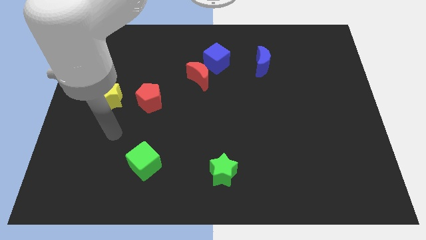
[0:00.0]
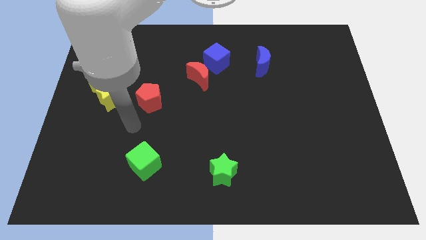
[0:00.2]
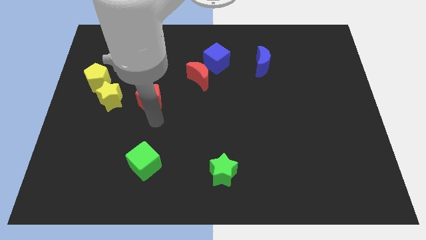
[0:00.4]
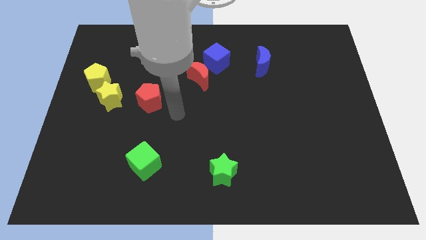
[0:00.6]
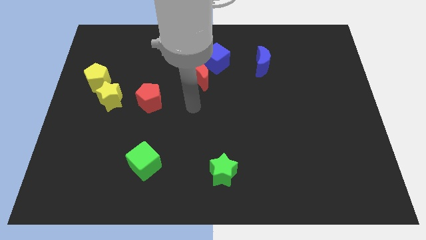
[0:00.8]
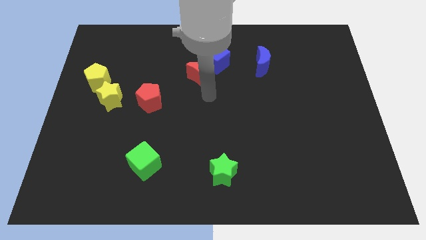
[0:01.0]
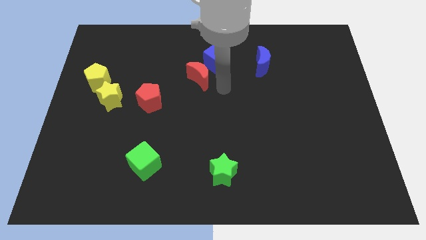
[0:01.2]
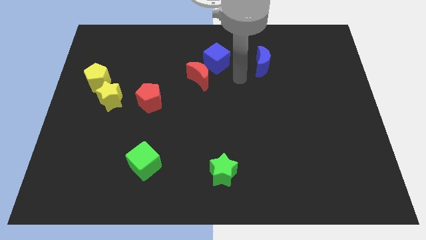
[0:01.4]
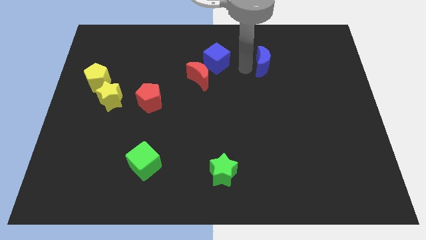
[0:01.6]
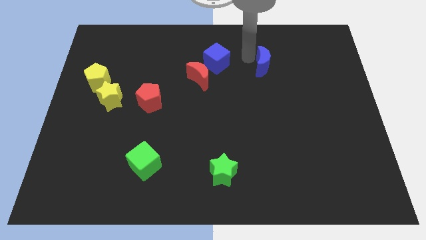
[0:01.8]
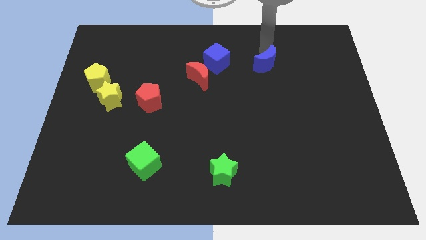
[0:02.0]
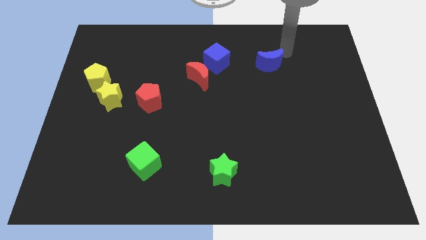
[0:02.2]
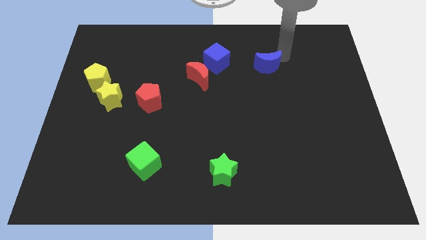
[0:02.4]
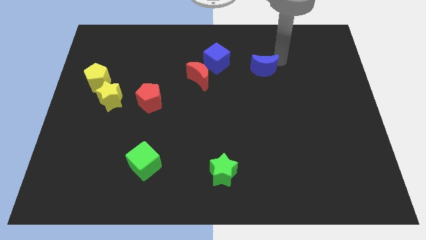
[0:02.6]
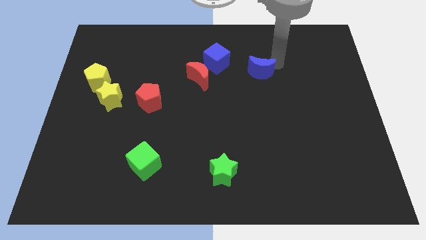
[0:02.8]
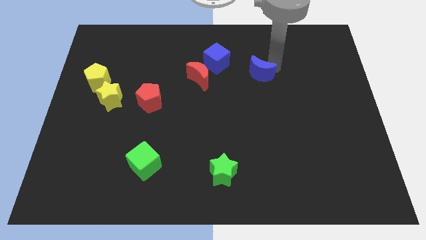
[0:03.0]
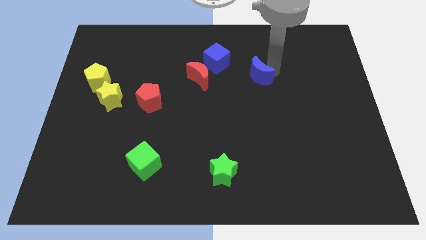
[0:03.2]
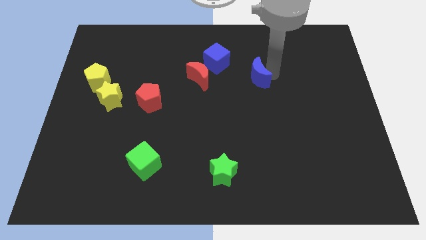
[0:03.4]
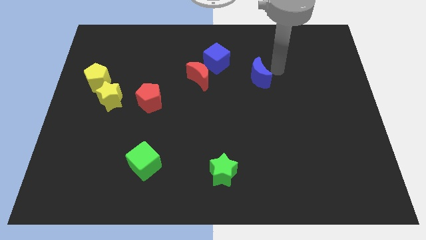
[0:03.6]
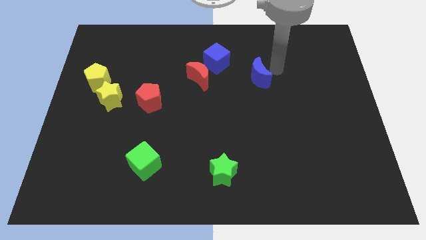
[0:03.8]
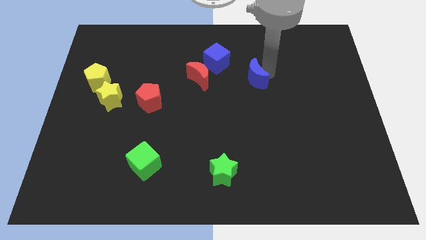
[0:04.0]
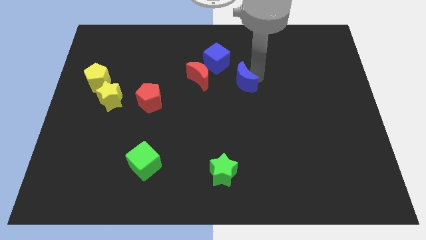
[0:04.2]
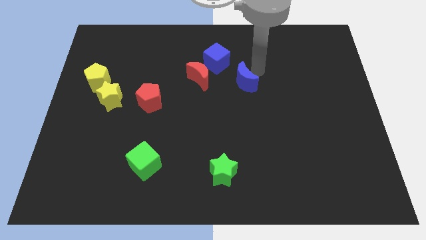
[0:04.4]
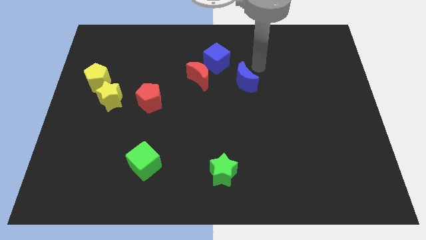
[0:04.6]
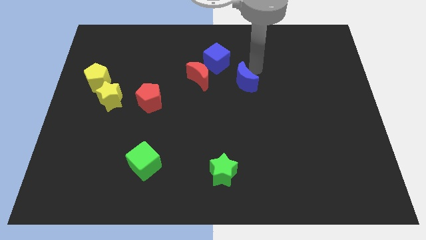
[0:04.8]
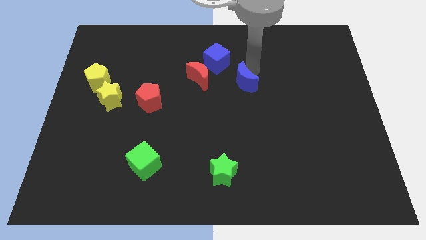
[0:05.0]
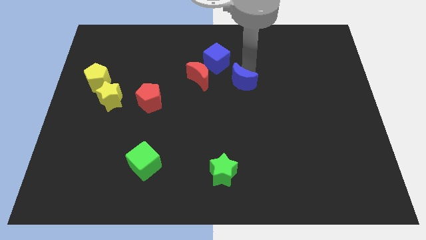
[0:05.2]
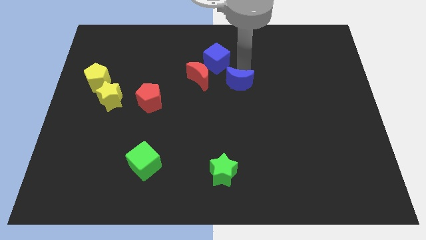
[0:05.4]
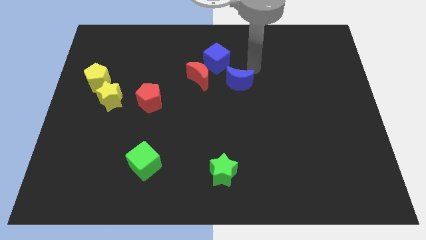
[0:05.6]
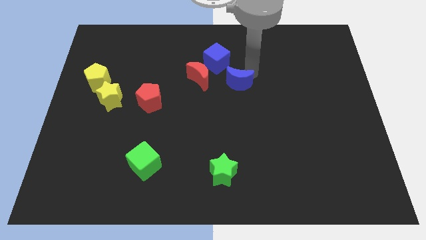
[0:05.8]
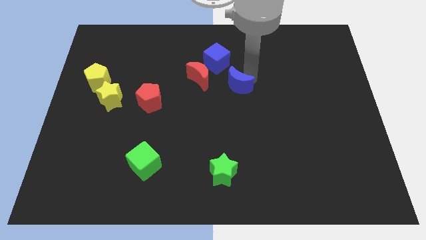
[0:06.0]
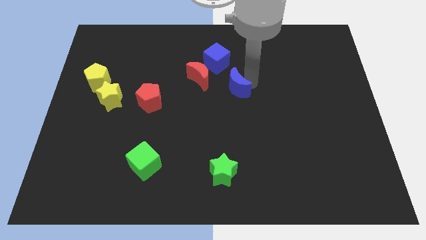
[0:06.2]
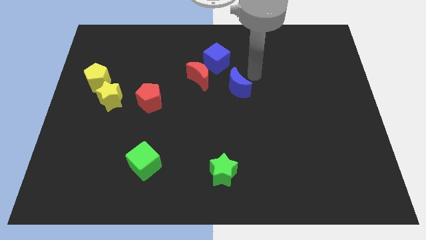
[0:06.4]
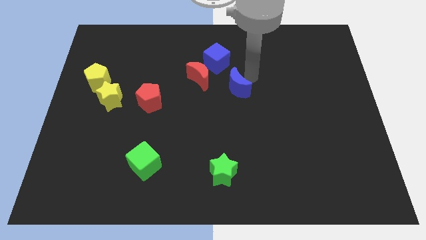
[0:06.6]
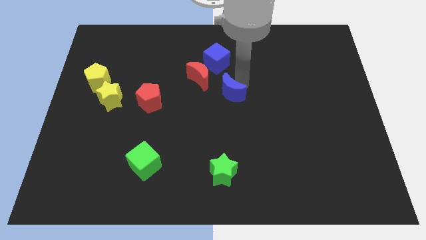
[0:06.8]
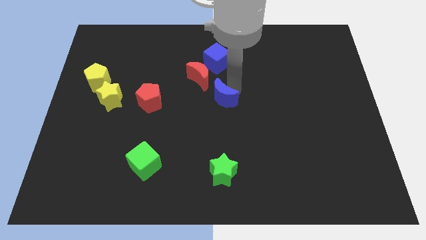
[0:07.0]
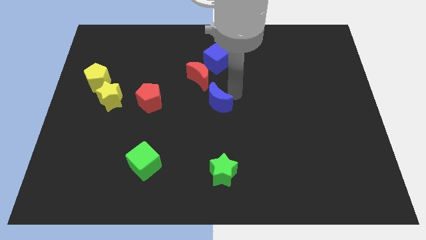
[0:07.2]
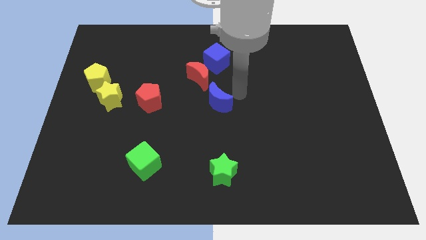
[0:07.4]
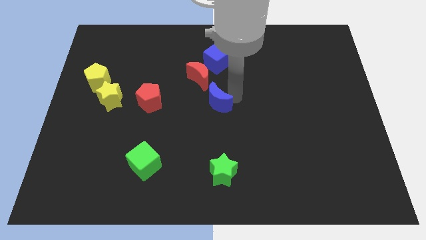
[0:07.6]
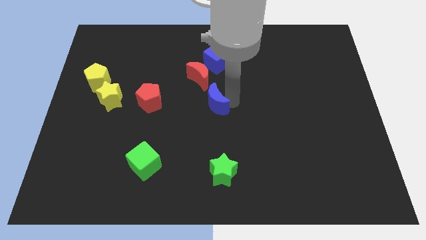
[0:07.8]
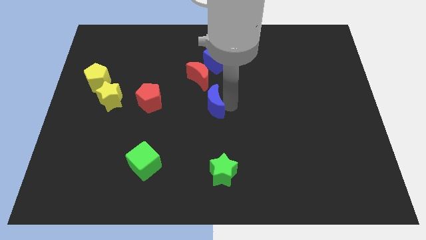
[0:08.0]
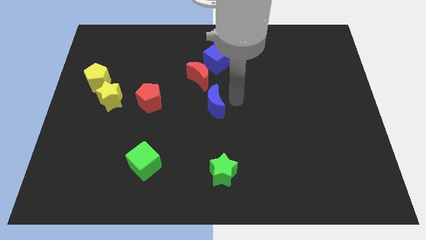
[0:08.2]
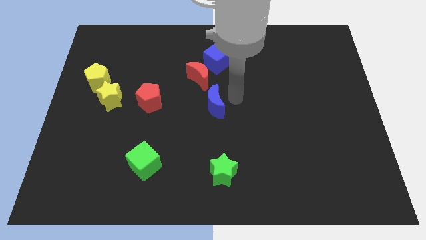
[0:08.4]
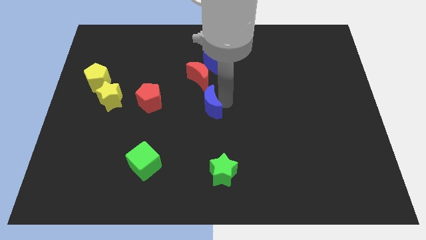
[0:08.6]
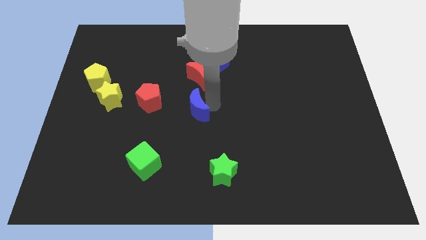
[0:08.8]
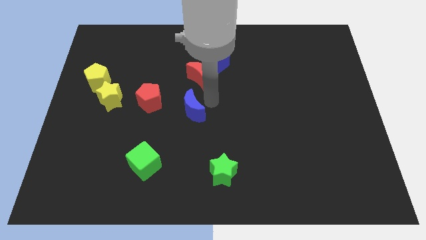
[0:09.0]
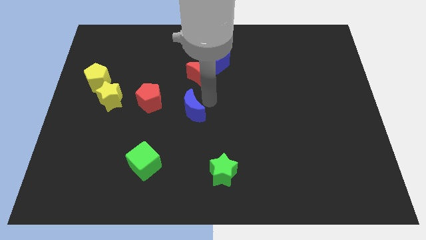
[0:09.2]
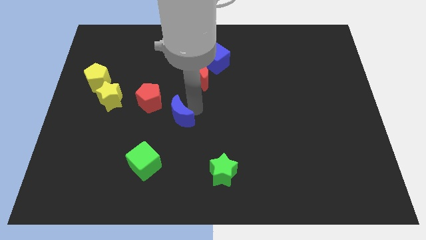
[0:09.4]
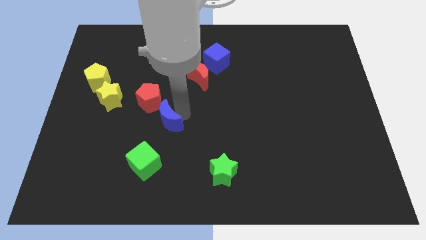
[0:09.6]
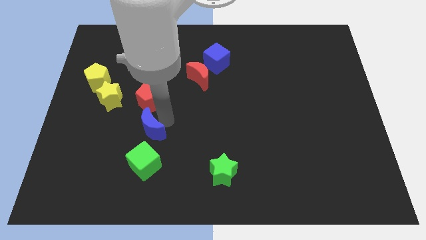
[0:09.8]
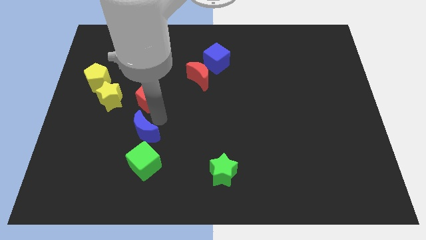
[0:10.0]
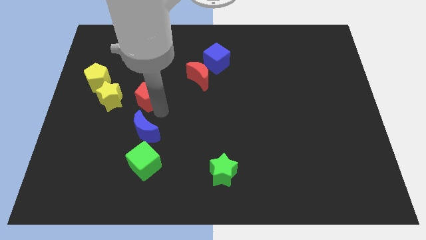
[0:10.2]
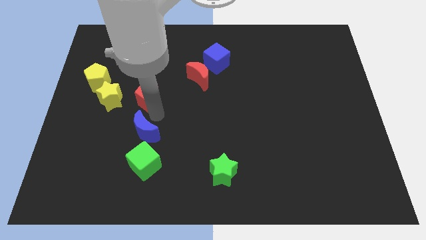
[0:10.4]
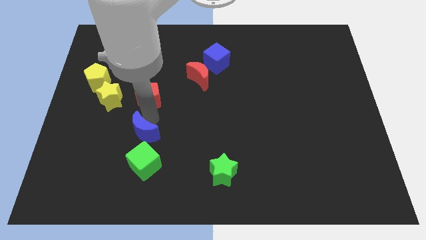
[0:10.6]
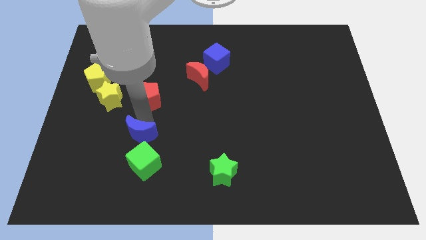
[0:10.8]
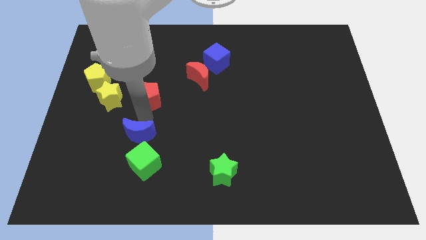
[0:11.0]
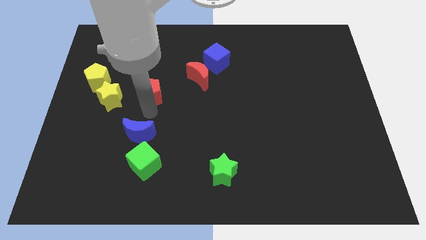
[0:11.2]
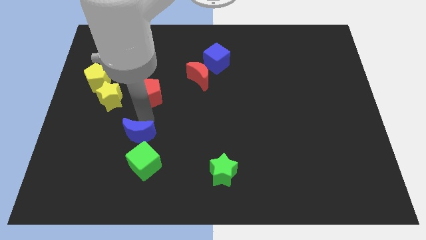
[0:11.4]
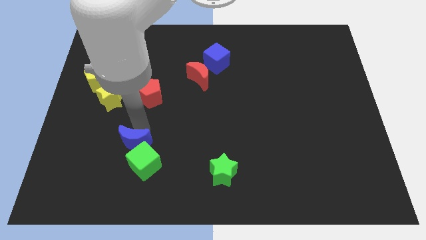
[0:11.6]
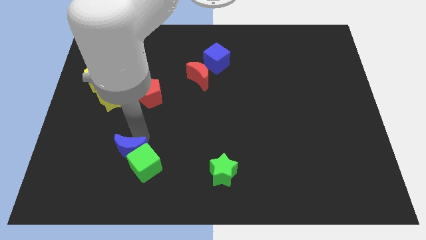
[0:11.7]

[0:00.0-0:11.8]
put the blue moon to the left side of the green cube

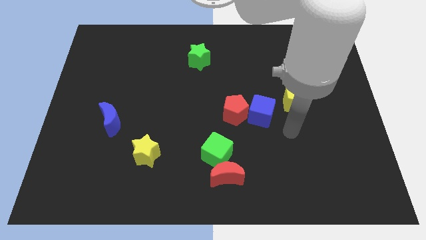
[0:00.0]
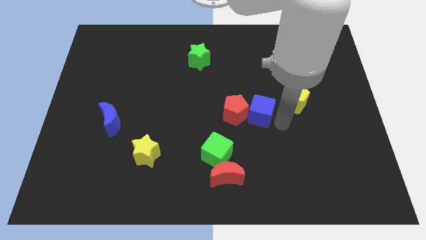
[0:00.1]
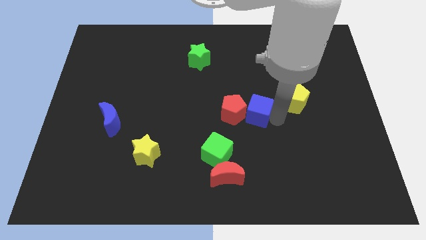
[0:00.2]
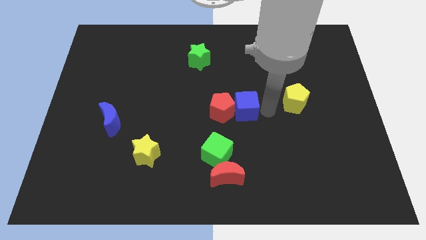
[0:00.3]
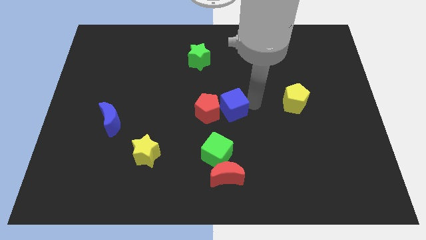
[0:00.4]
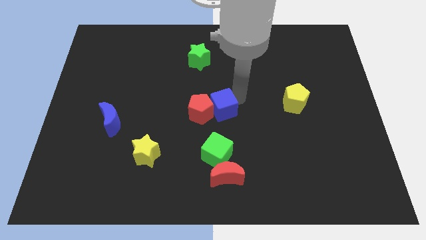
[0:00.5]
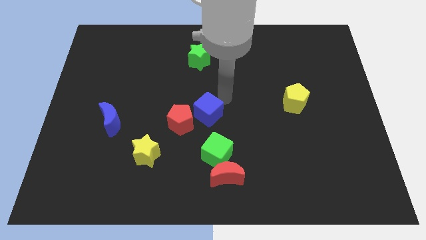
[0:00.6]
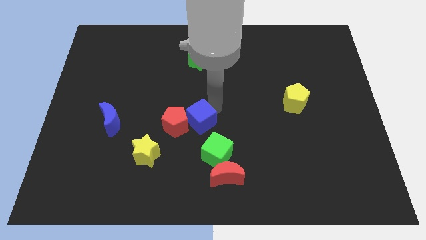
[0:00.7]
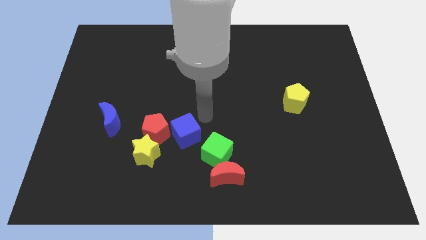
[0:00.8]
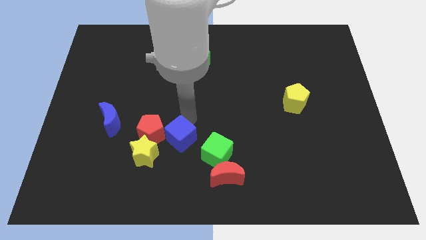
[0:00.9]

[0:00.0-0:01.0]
move the red pentagon to the bottom right of the blue moon
